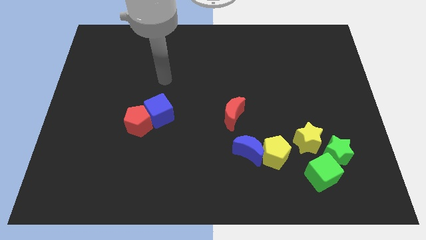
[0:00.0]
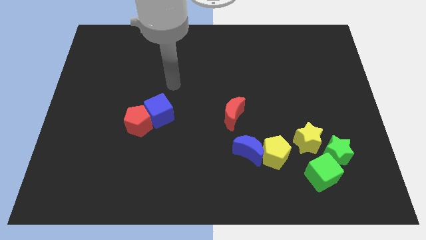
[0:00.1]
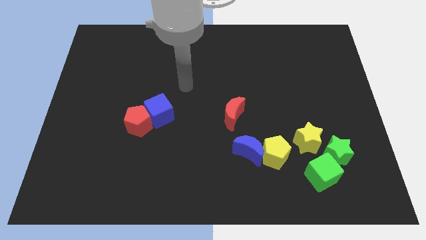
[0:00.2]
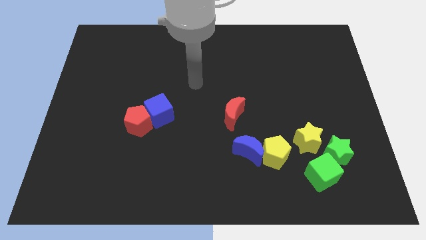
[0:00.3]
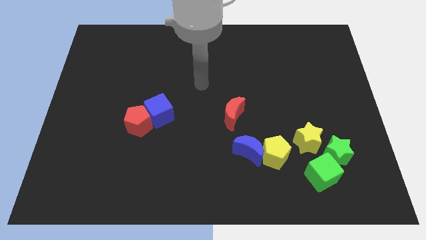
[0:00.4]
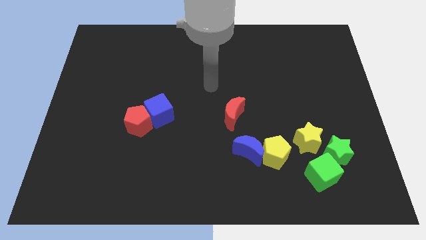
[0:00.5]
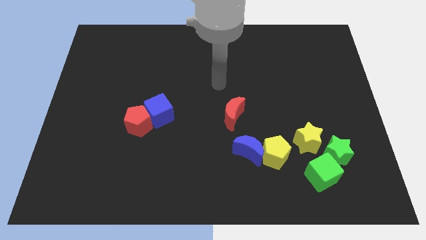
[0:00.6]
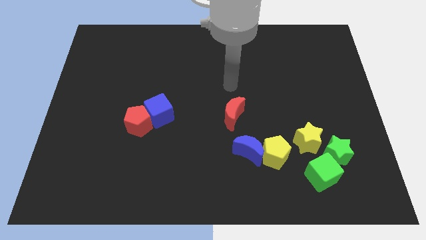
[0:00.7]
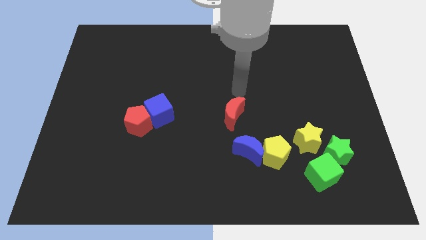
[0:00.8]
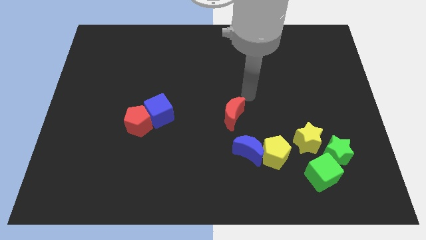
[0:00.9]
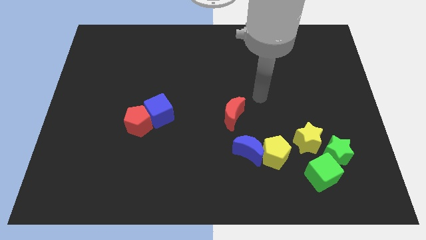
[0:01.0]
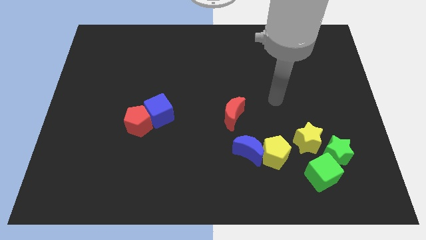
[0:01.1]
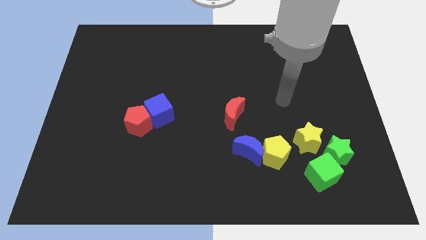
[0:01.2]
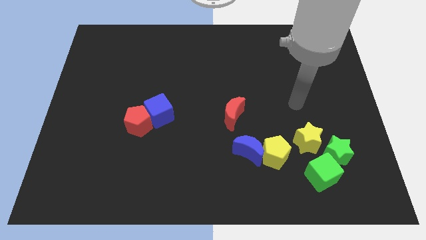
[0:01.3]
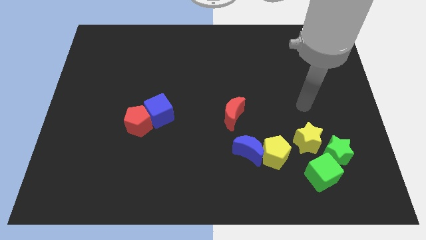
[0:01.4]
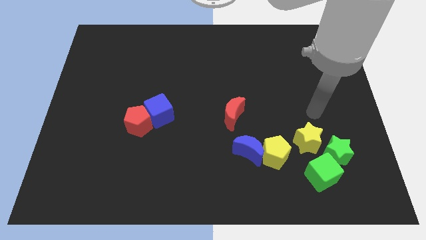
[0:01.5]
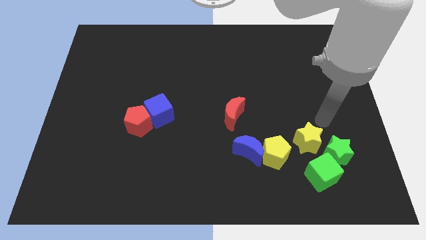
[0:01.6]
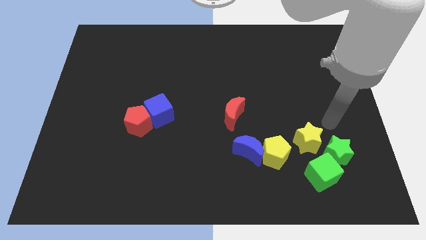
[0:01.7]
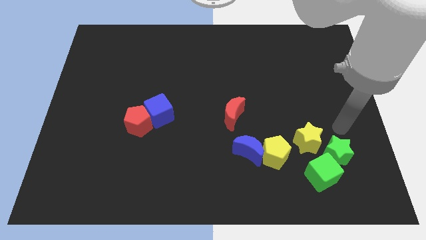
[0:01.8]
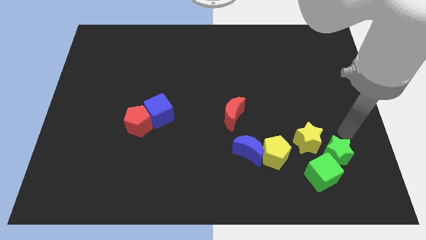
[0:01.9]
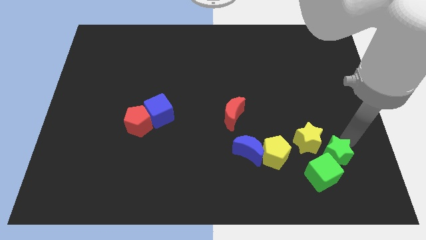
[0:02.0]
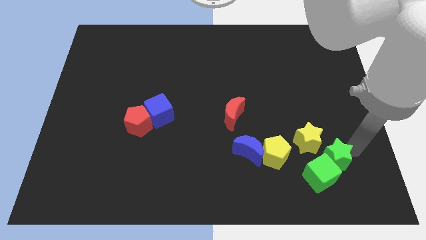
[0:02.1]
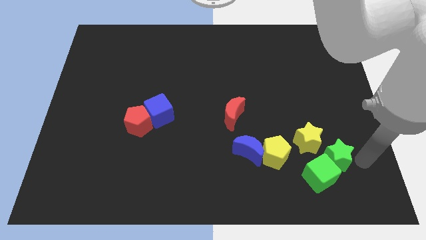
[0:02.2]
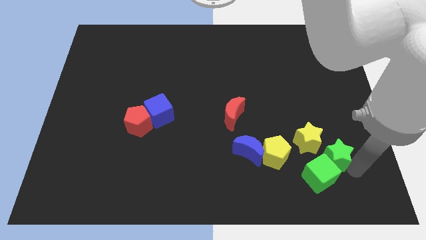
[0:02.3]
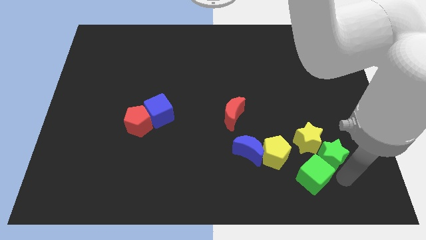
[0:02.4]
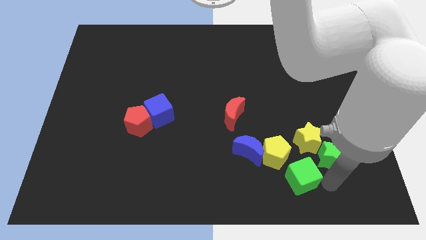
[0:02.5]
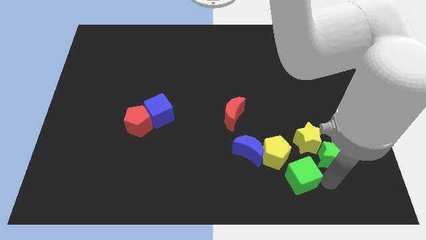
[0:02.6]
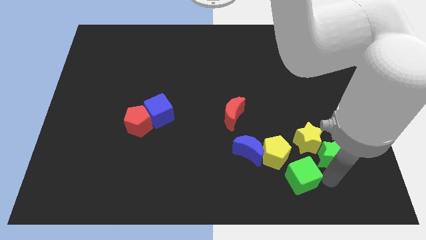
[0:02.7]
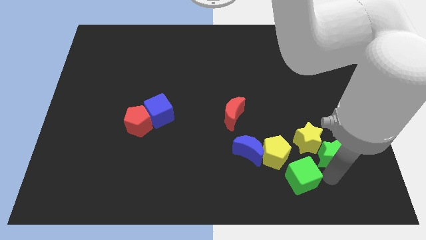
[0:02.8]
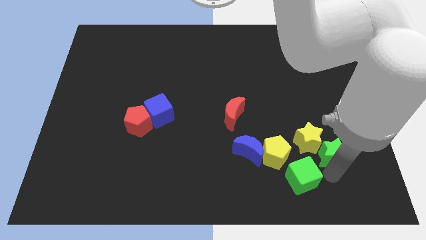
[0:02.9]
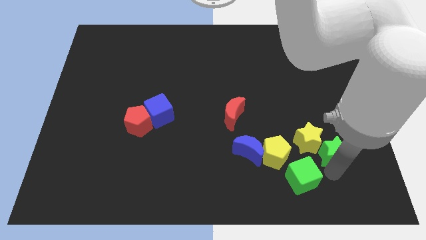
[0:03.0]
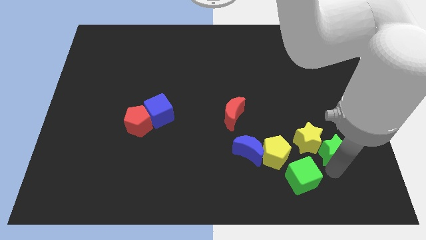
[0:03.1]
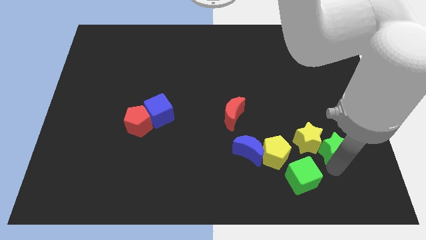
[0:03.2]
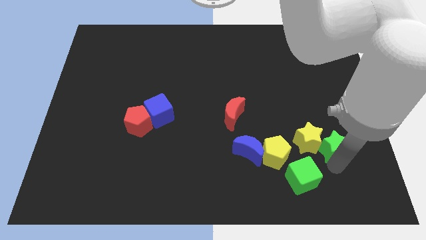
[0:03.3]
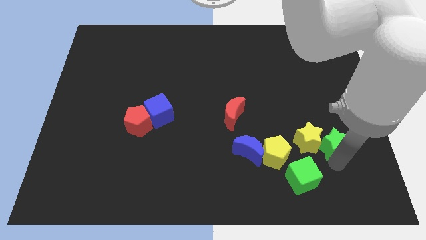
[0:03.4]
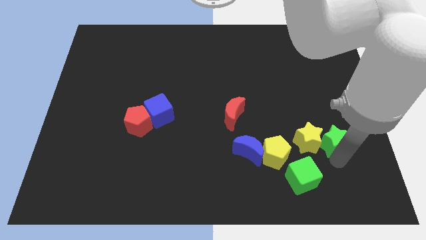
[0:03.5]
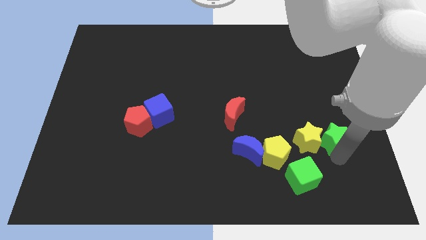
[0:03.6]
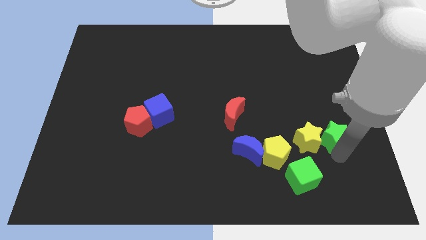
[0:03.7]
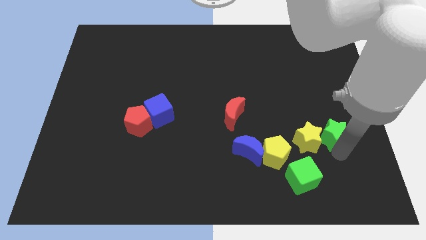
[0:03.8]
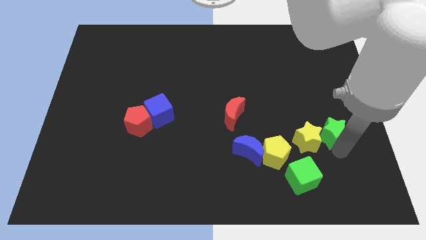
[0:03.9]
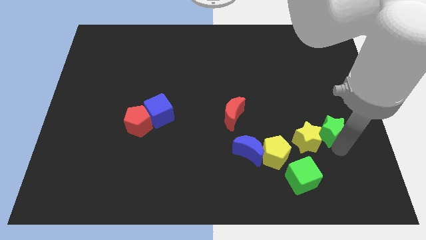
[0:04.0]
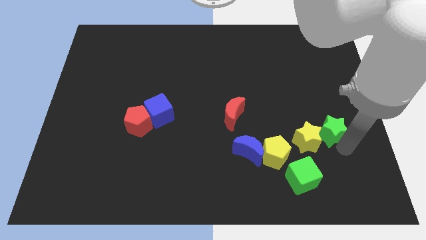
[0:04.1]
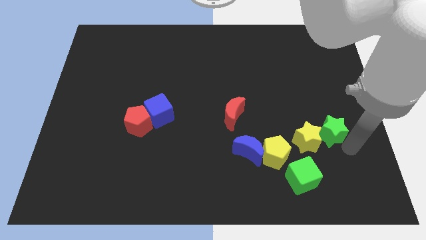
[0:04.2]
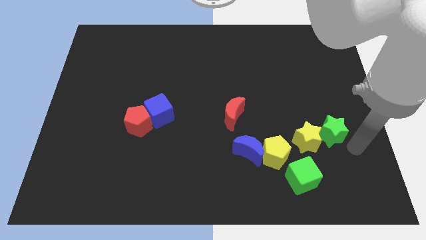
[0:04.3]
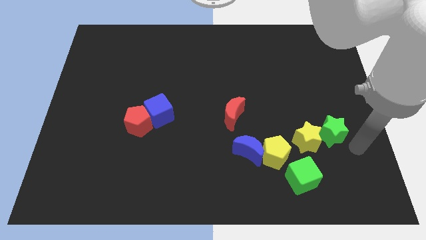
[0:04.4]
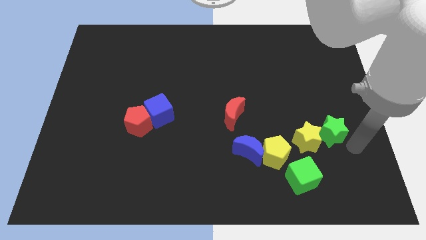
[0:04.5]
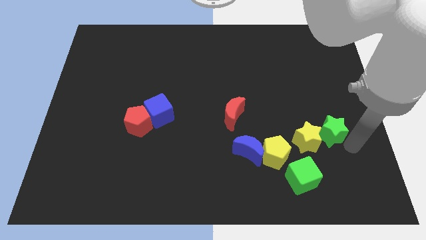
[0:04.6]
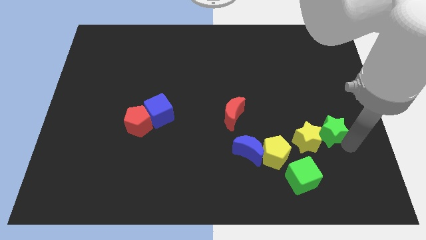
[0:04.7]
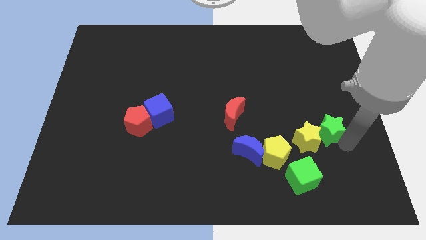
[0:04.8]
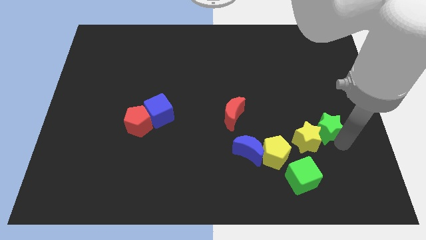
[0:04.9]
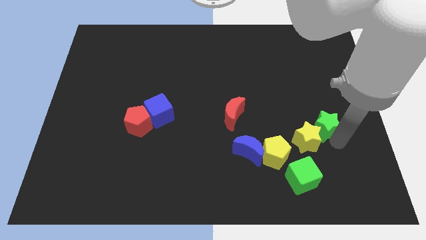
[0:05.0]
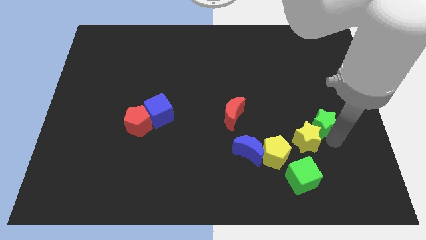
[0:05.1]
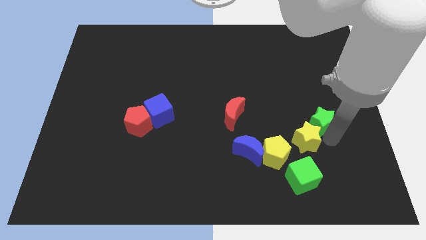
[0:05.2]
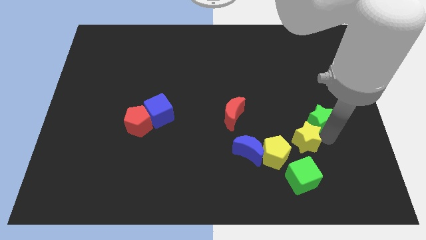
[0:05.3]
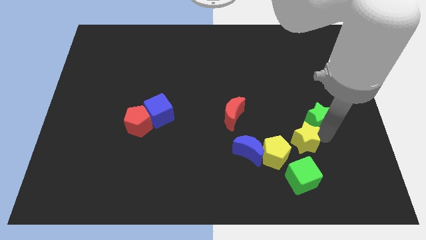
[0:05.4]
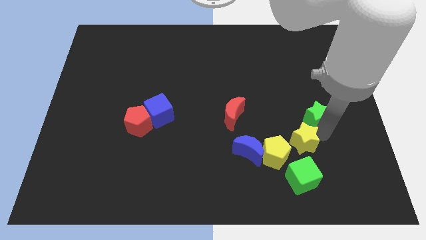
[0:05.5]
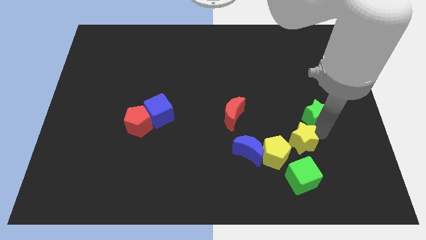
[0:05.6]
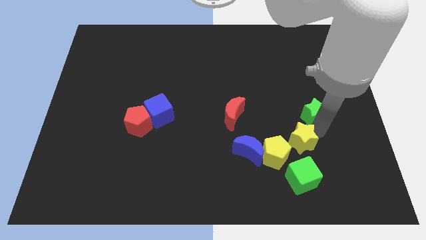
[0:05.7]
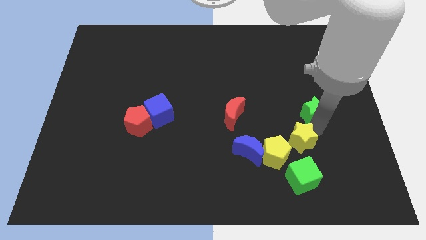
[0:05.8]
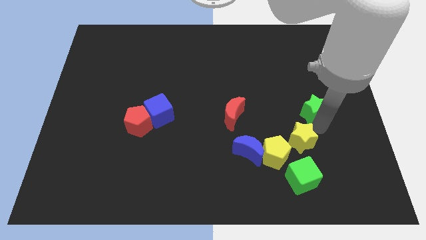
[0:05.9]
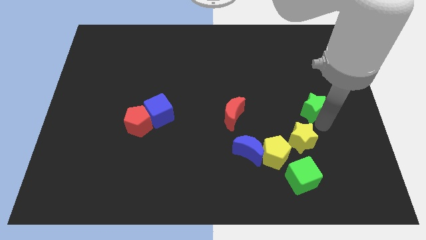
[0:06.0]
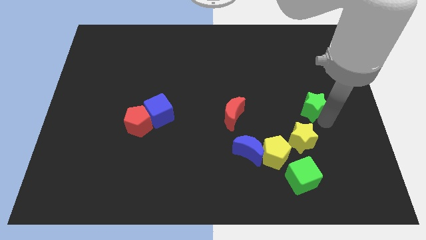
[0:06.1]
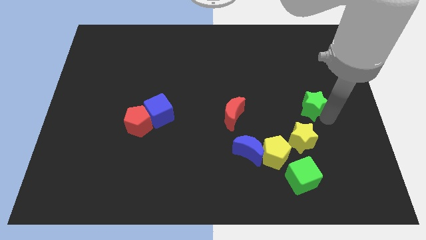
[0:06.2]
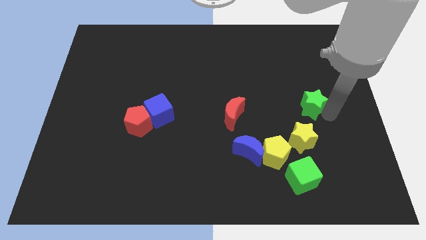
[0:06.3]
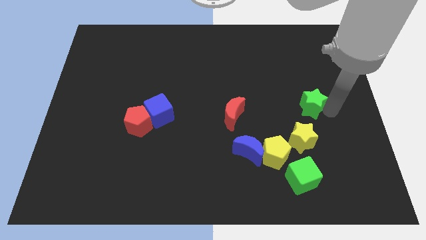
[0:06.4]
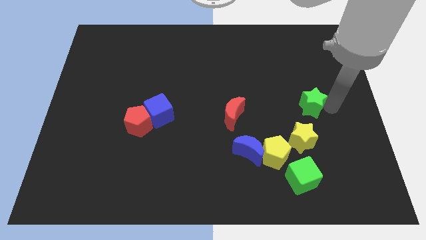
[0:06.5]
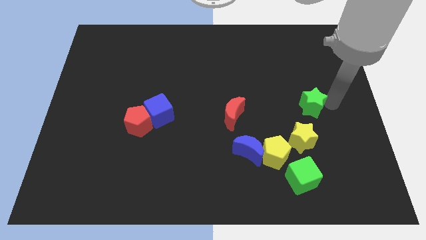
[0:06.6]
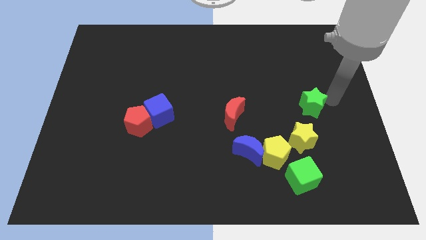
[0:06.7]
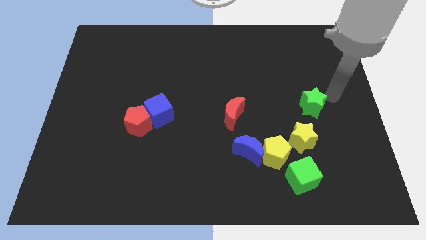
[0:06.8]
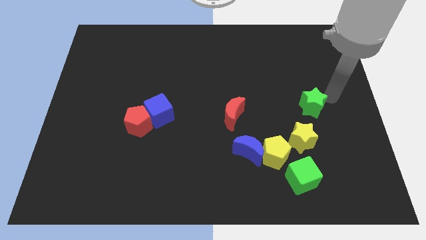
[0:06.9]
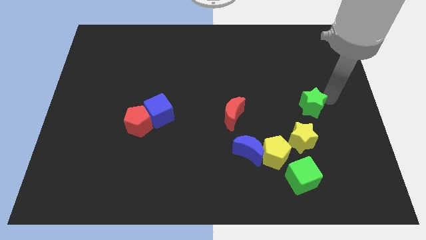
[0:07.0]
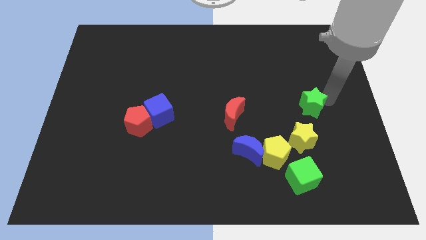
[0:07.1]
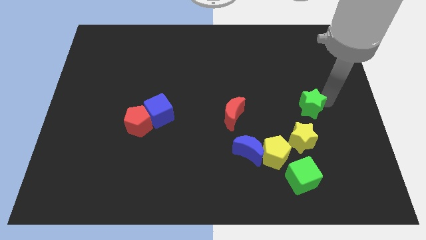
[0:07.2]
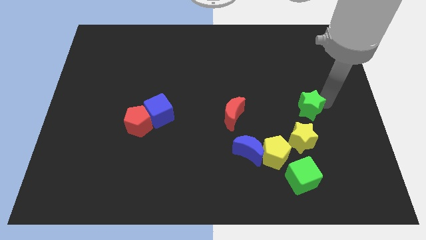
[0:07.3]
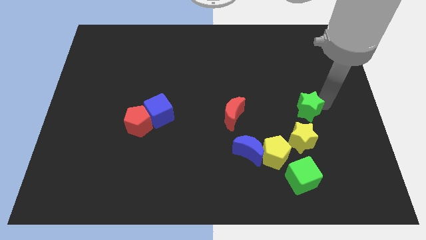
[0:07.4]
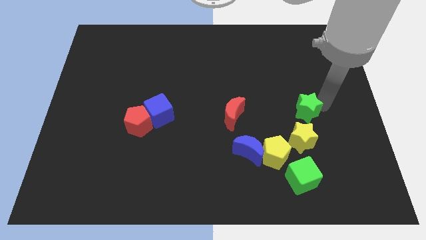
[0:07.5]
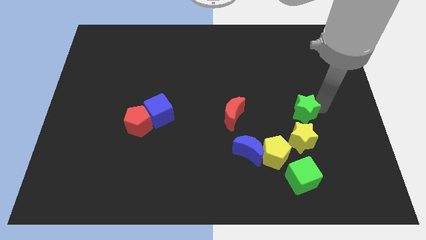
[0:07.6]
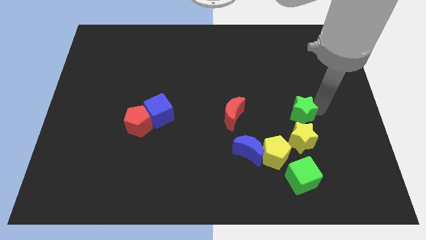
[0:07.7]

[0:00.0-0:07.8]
move the green star just right of the red moon
